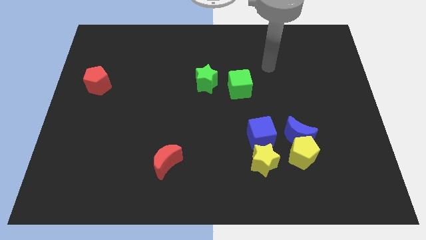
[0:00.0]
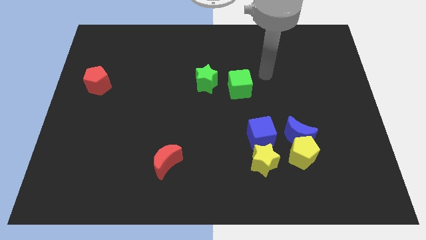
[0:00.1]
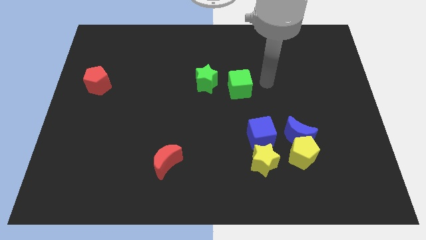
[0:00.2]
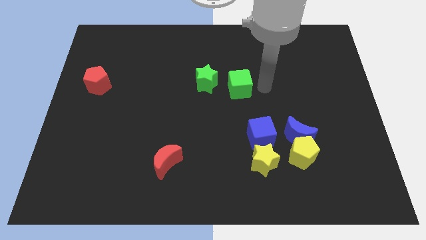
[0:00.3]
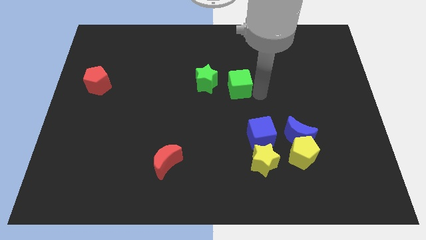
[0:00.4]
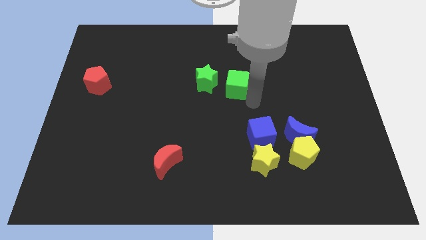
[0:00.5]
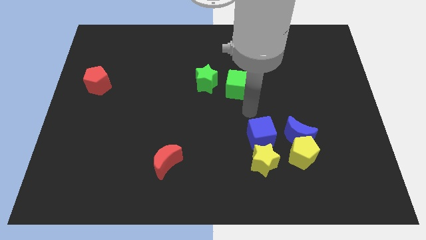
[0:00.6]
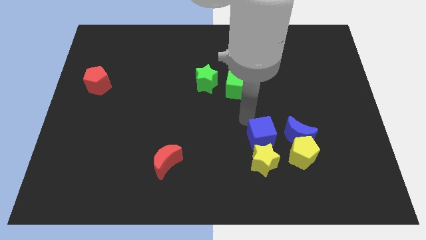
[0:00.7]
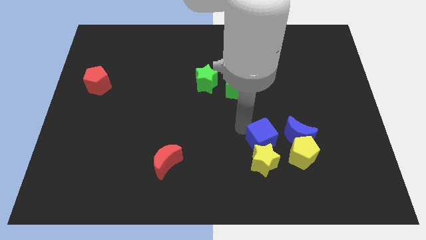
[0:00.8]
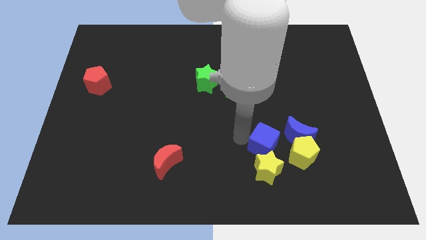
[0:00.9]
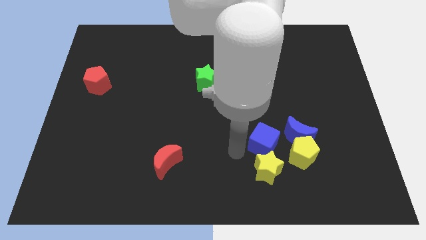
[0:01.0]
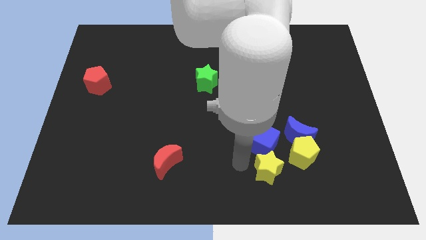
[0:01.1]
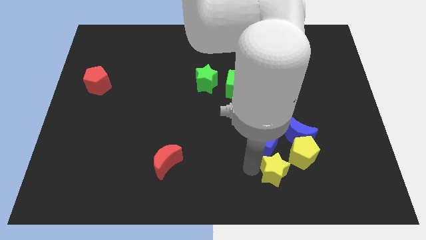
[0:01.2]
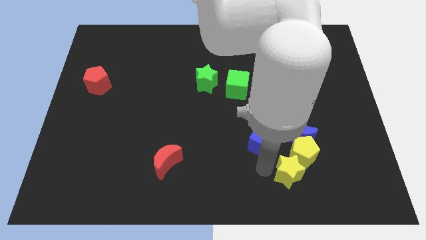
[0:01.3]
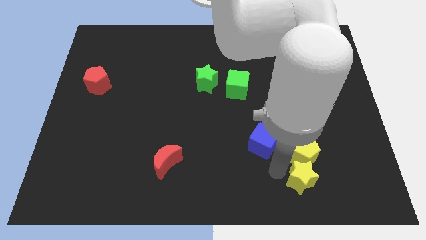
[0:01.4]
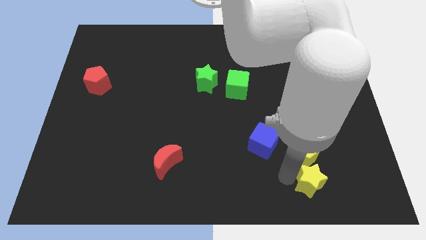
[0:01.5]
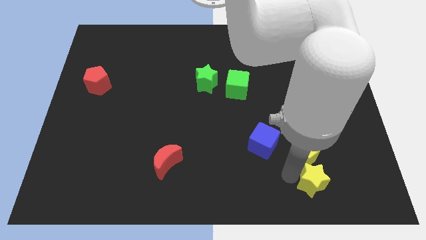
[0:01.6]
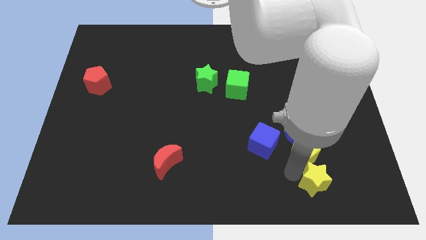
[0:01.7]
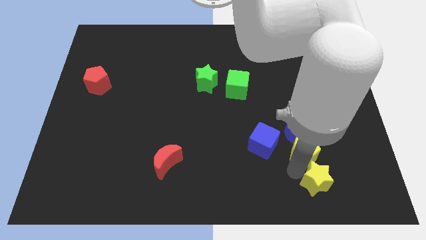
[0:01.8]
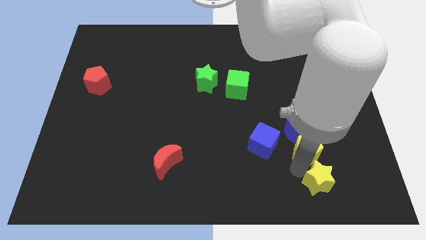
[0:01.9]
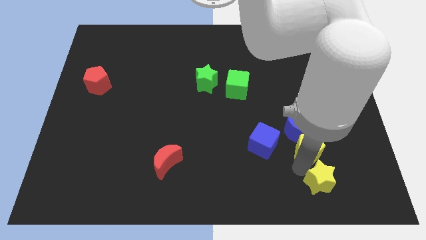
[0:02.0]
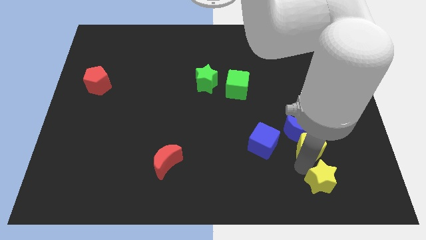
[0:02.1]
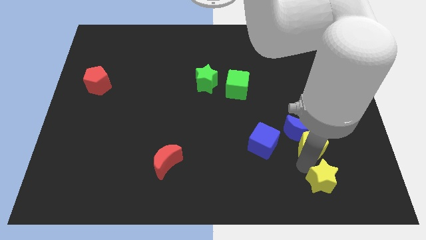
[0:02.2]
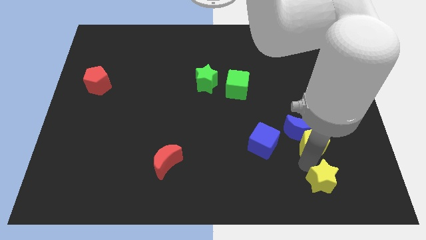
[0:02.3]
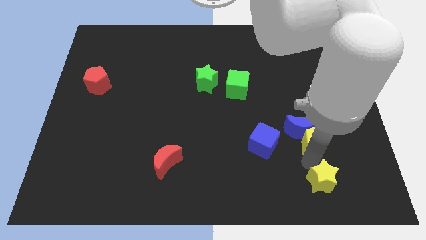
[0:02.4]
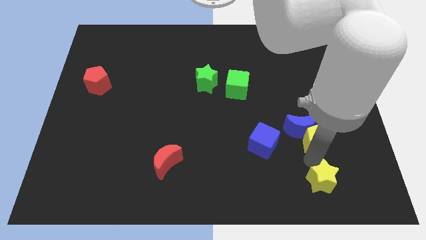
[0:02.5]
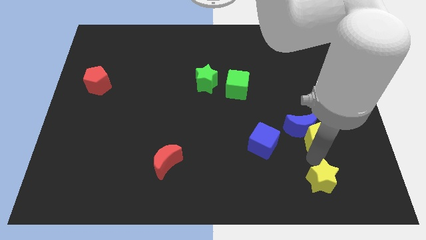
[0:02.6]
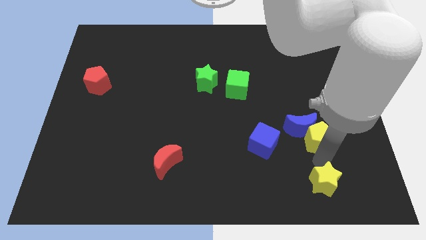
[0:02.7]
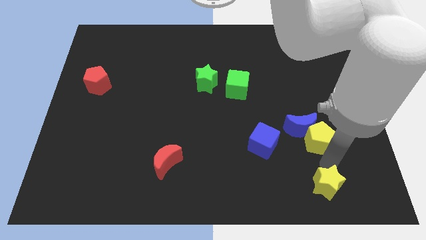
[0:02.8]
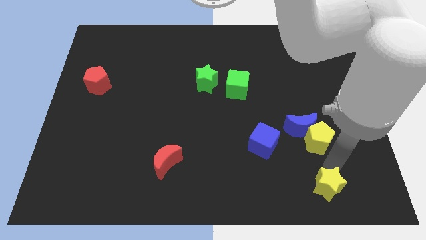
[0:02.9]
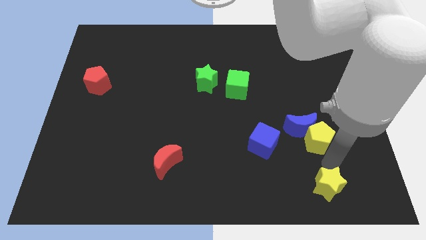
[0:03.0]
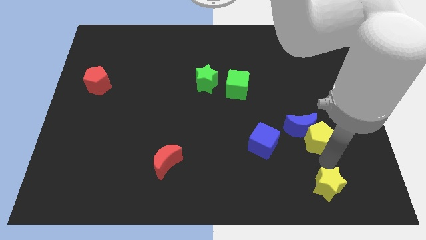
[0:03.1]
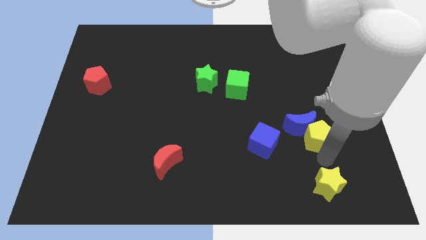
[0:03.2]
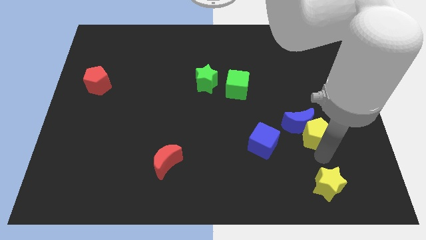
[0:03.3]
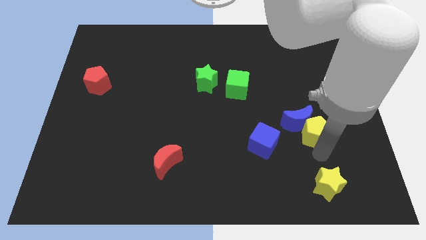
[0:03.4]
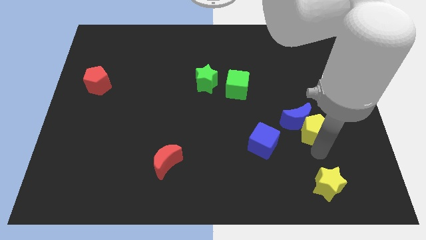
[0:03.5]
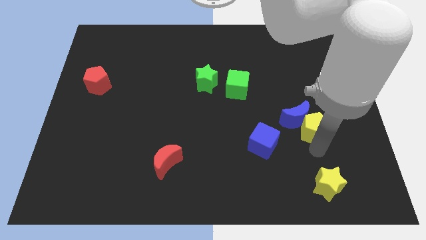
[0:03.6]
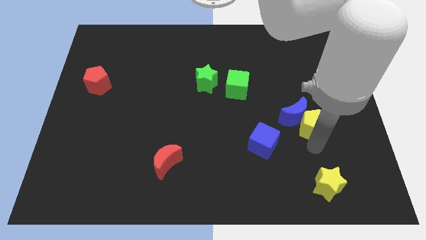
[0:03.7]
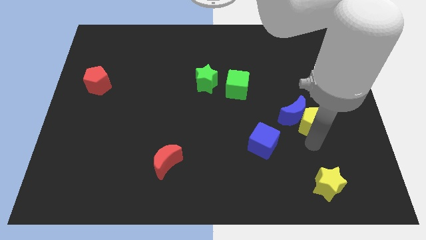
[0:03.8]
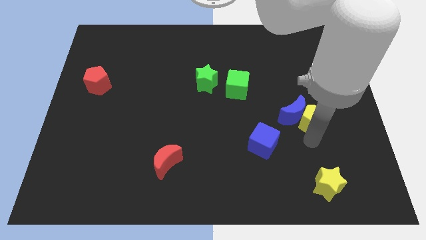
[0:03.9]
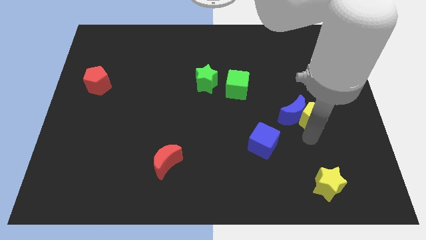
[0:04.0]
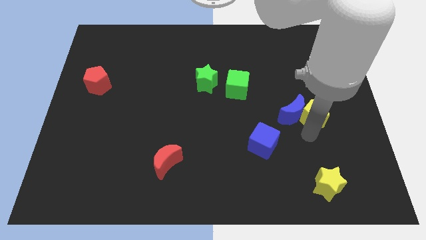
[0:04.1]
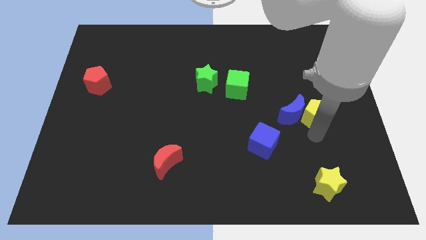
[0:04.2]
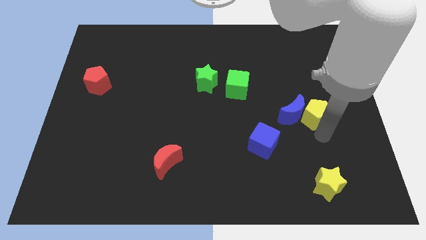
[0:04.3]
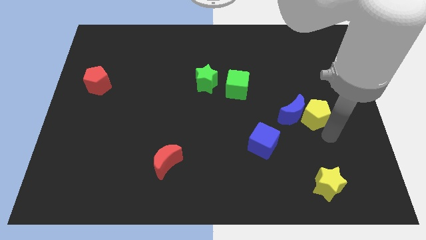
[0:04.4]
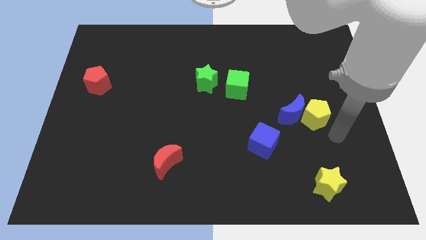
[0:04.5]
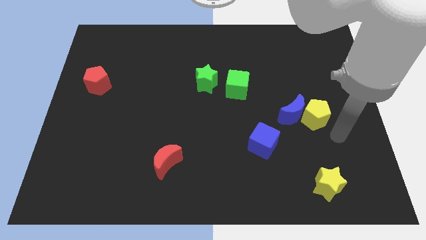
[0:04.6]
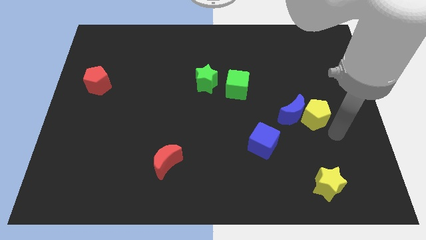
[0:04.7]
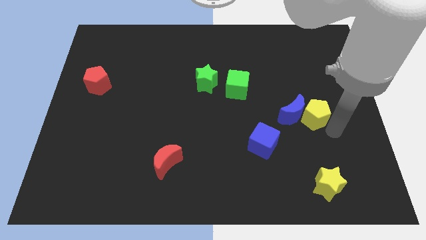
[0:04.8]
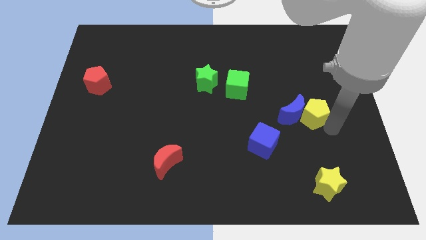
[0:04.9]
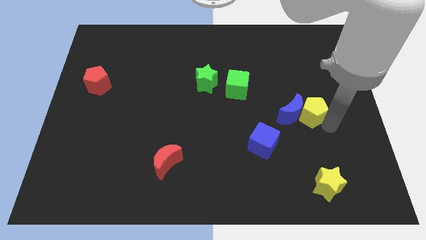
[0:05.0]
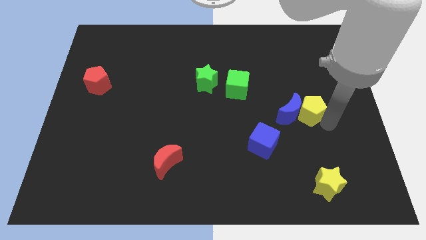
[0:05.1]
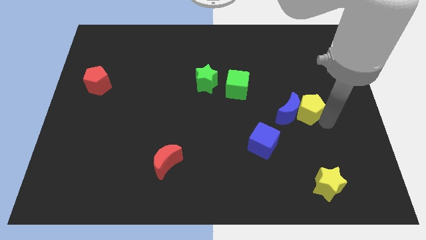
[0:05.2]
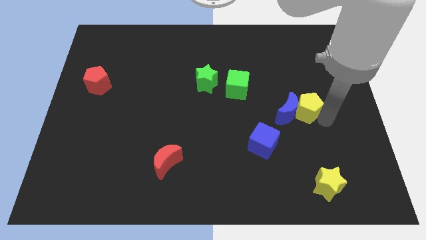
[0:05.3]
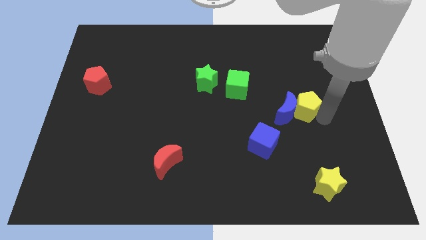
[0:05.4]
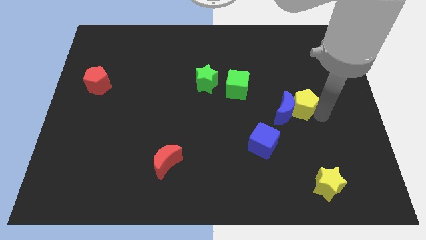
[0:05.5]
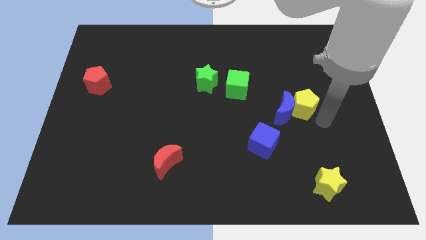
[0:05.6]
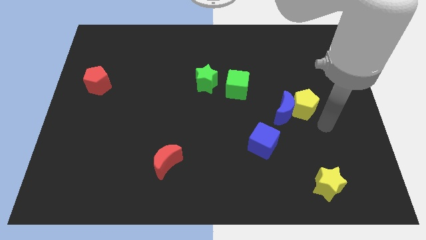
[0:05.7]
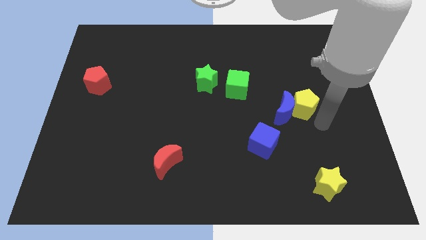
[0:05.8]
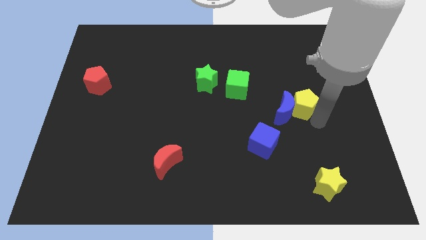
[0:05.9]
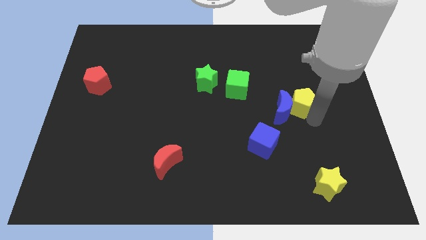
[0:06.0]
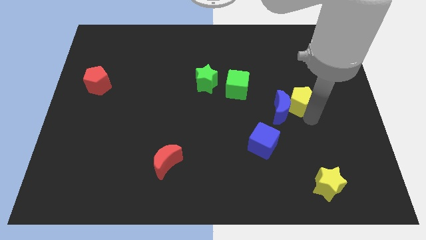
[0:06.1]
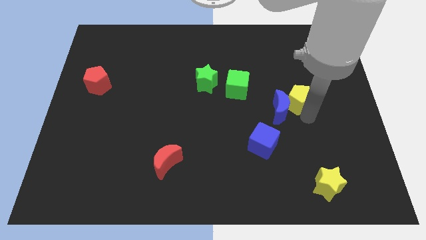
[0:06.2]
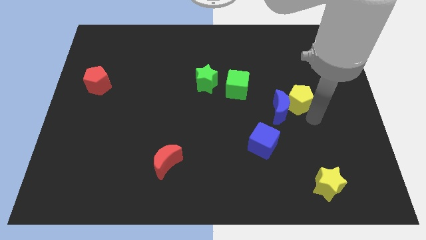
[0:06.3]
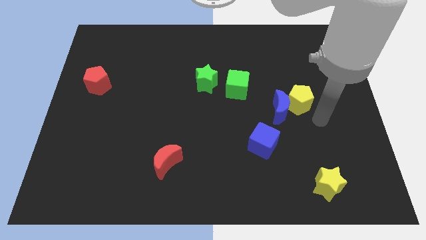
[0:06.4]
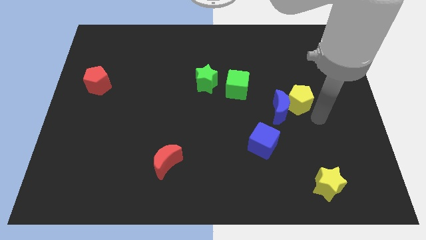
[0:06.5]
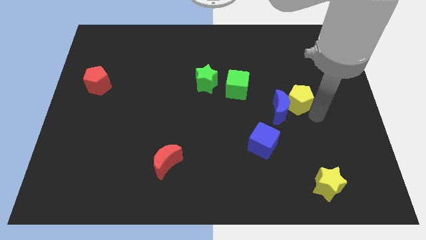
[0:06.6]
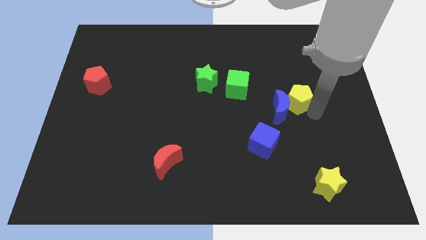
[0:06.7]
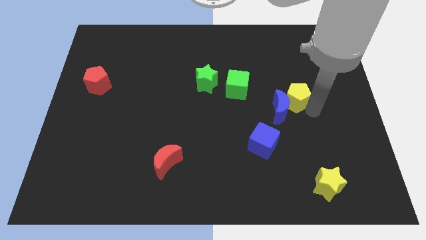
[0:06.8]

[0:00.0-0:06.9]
slide the yellow pentagon to the right of the green cube

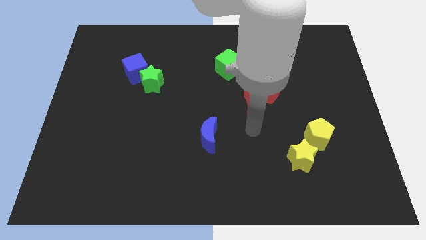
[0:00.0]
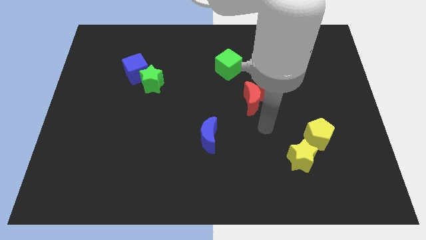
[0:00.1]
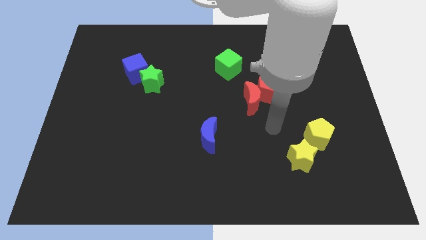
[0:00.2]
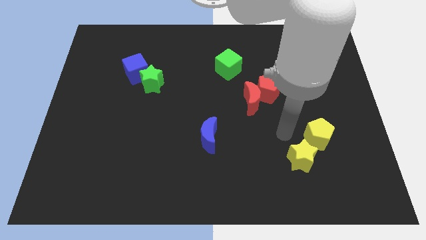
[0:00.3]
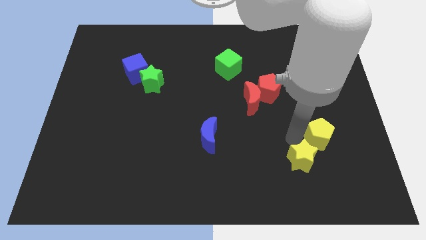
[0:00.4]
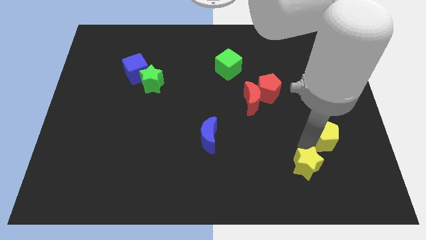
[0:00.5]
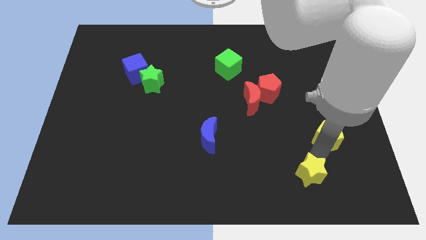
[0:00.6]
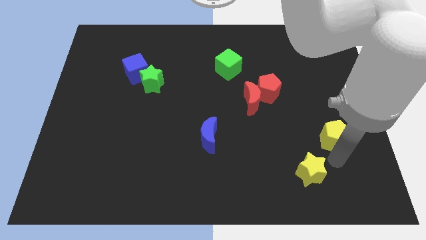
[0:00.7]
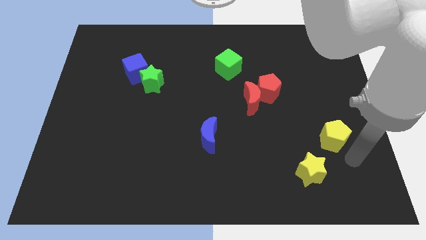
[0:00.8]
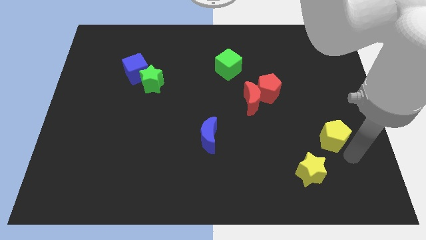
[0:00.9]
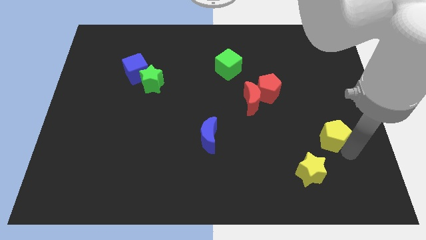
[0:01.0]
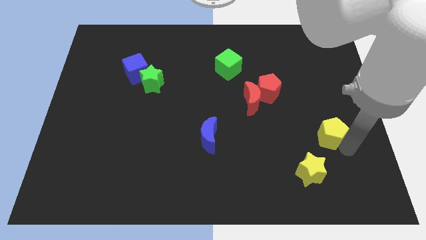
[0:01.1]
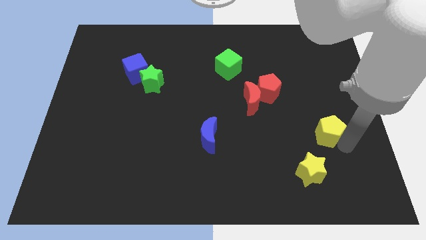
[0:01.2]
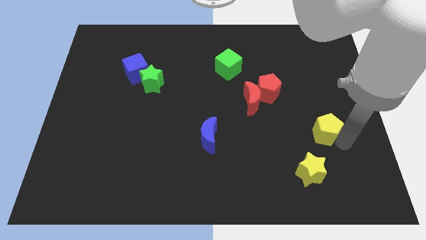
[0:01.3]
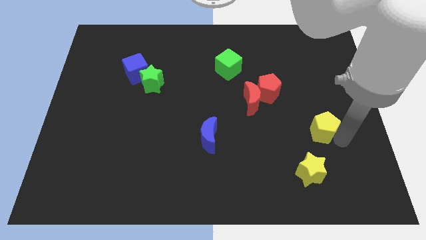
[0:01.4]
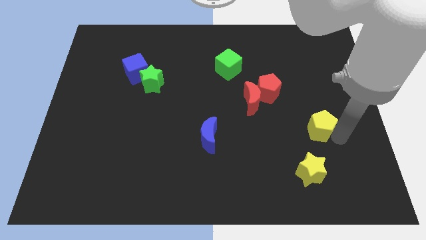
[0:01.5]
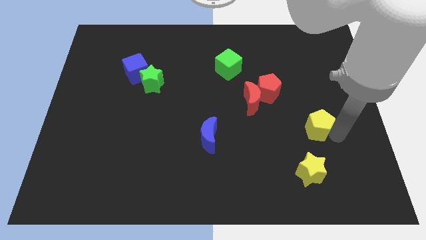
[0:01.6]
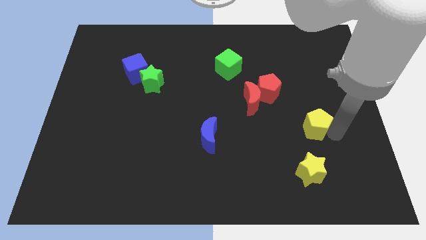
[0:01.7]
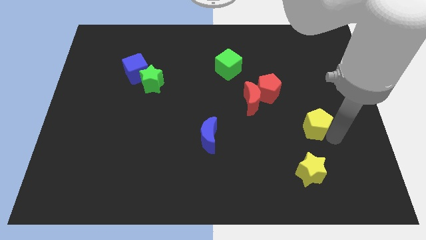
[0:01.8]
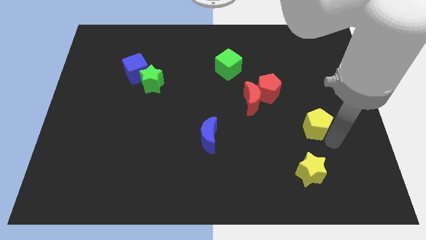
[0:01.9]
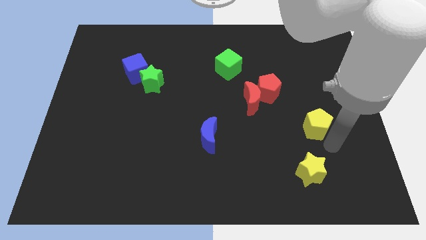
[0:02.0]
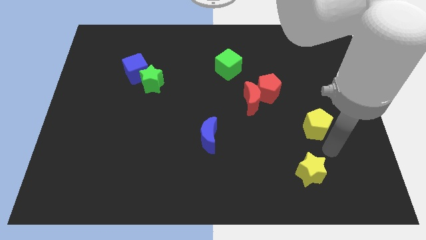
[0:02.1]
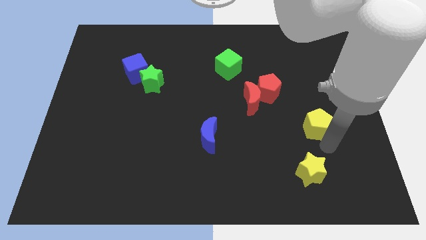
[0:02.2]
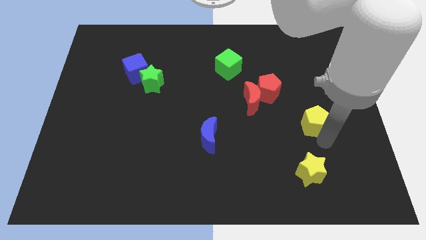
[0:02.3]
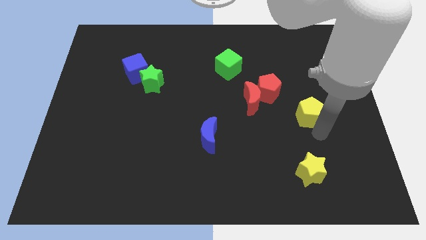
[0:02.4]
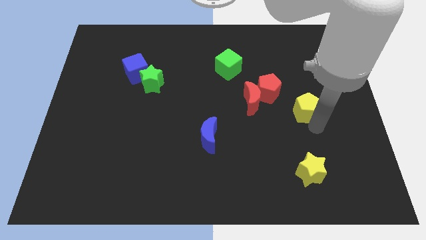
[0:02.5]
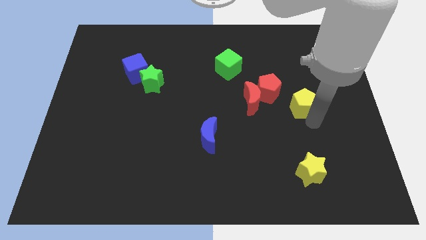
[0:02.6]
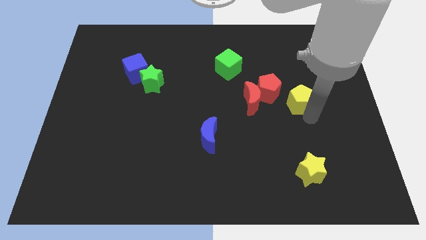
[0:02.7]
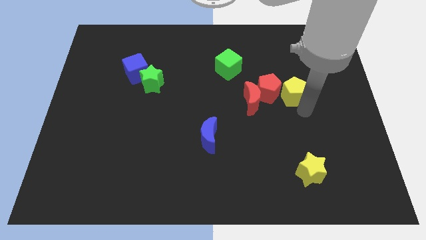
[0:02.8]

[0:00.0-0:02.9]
push the yellow pentagon to the top right of the red pentagon
